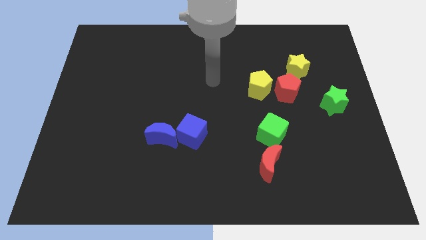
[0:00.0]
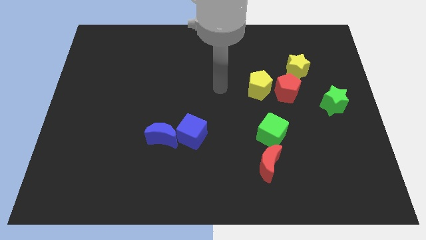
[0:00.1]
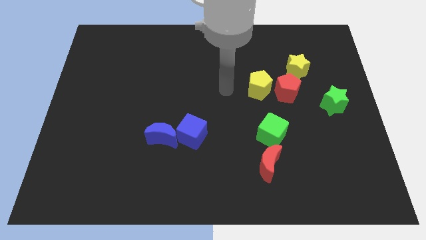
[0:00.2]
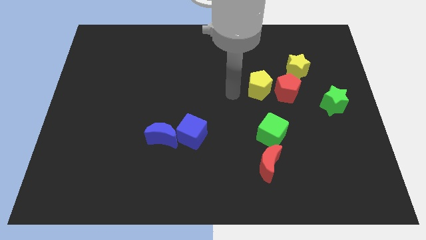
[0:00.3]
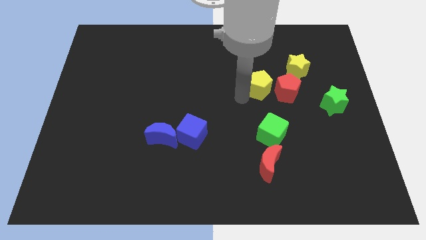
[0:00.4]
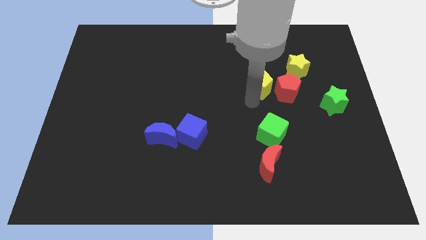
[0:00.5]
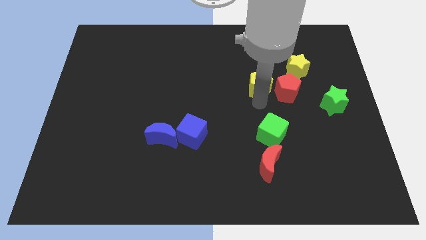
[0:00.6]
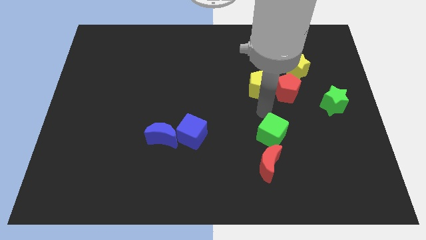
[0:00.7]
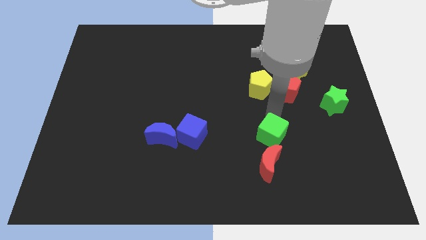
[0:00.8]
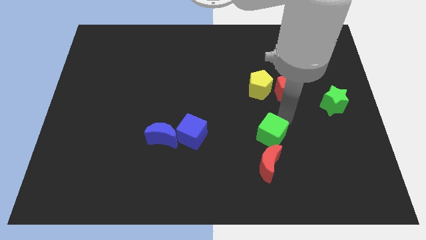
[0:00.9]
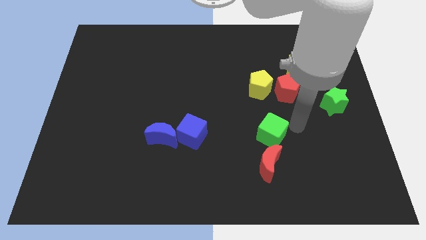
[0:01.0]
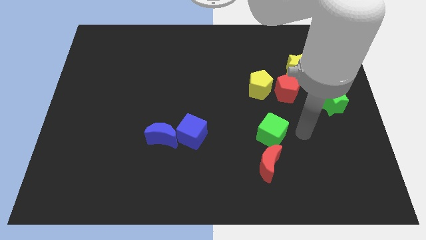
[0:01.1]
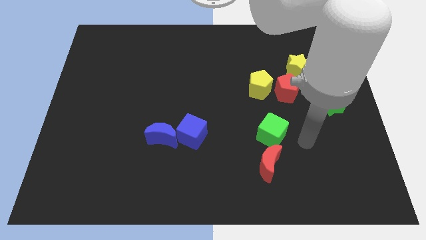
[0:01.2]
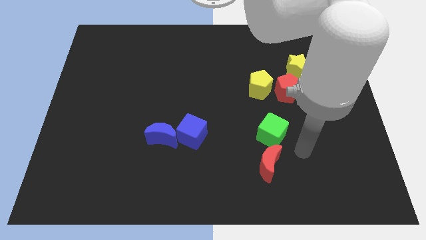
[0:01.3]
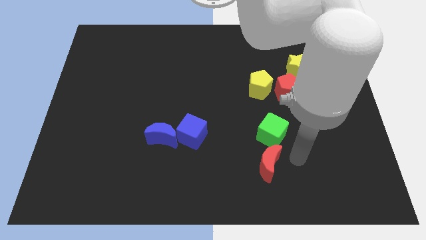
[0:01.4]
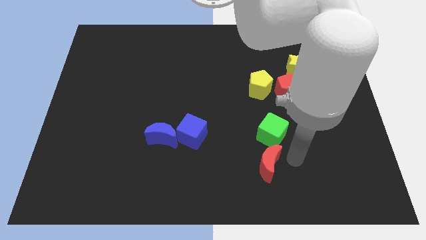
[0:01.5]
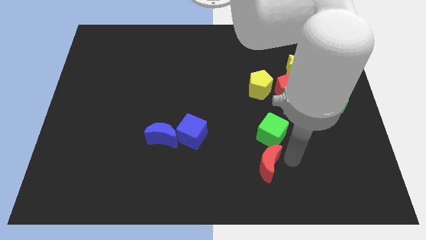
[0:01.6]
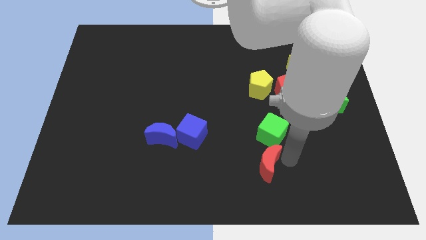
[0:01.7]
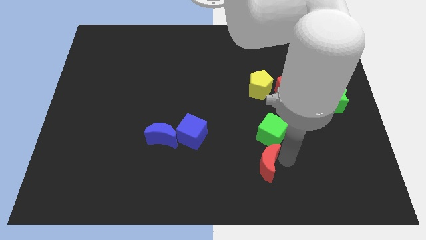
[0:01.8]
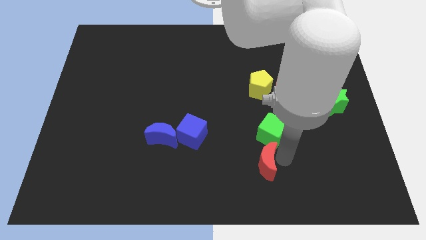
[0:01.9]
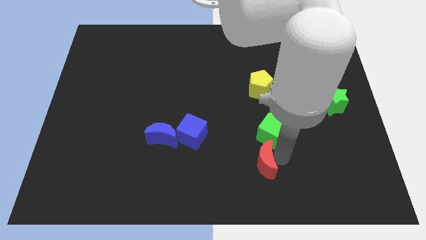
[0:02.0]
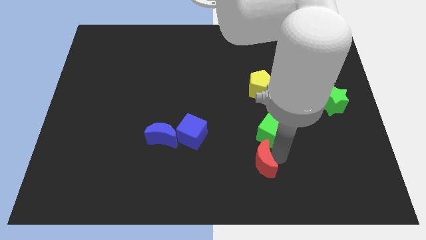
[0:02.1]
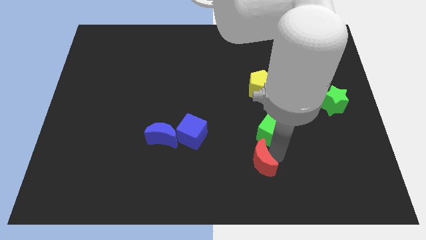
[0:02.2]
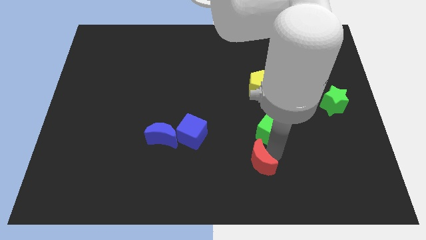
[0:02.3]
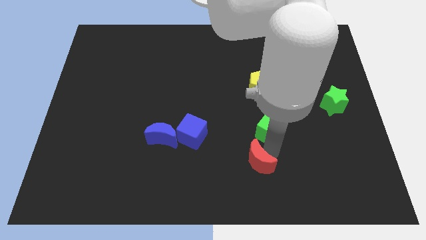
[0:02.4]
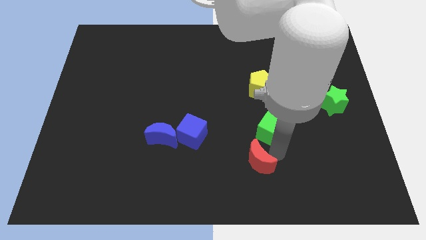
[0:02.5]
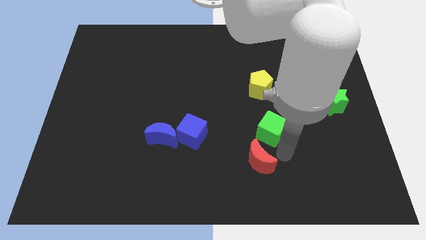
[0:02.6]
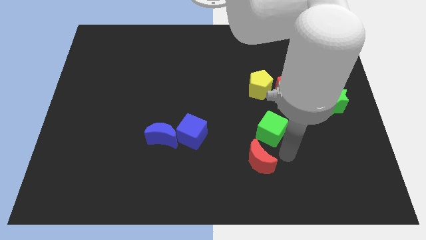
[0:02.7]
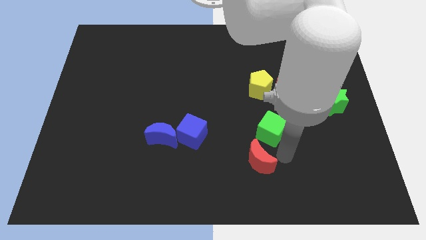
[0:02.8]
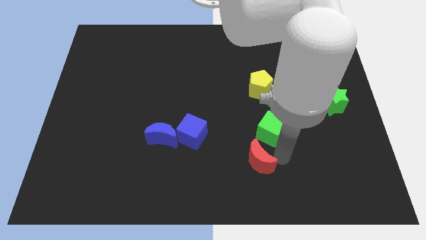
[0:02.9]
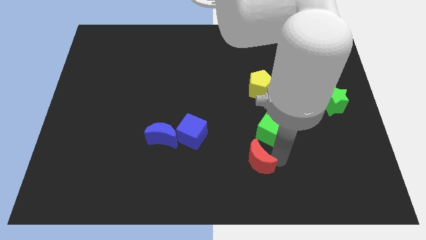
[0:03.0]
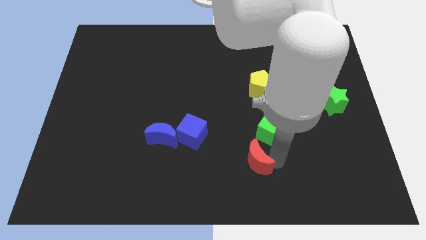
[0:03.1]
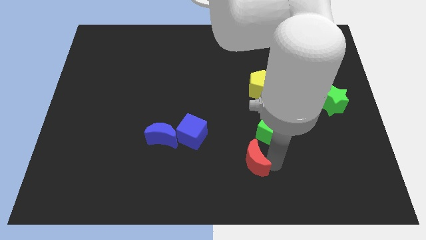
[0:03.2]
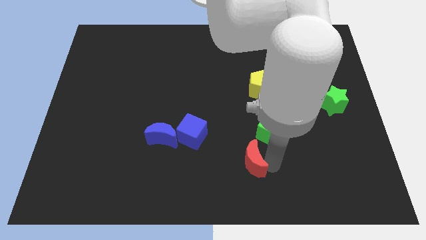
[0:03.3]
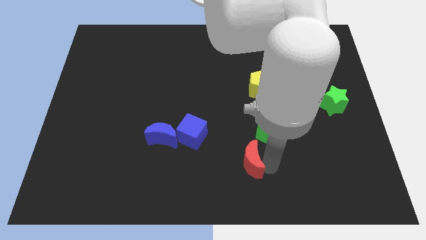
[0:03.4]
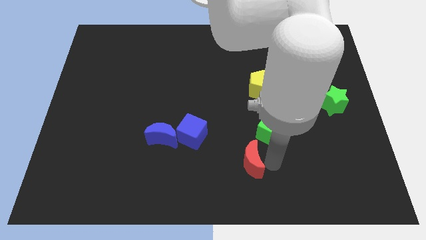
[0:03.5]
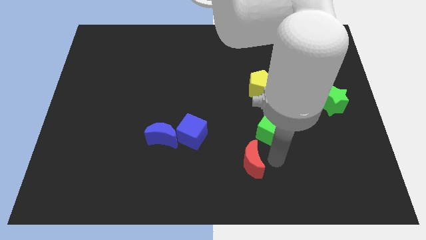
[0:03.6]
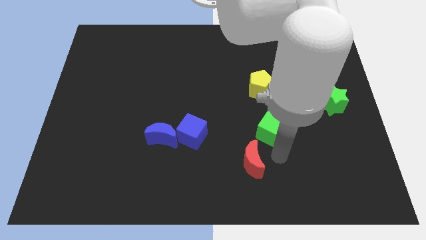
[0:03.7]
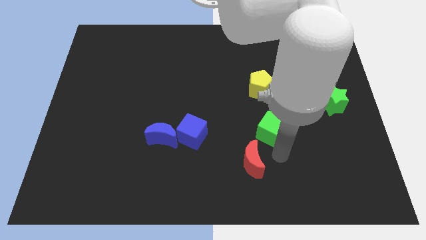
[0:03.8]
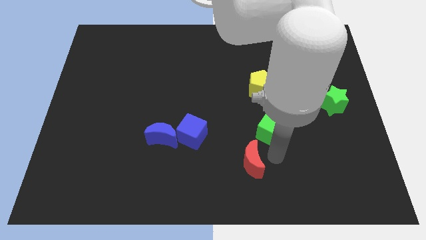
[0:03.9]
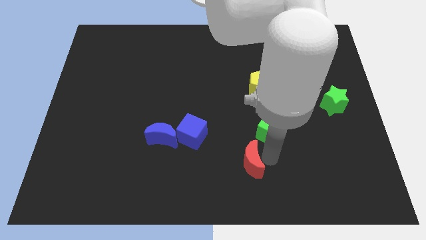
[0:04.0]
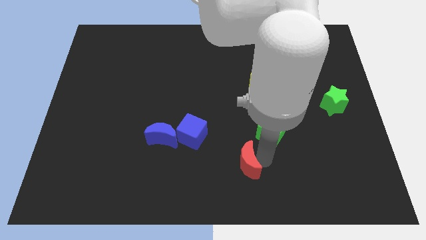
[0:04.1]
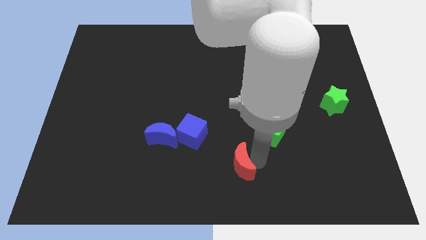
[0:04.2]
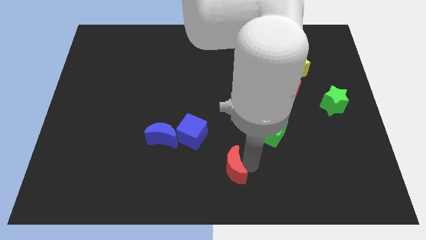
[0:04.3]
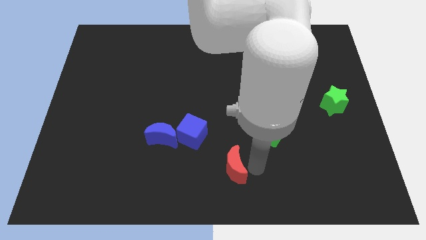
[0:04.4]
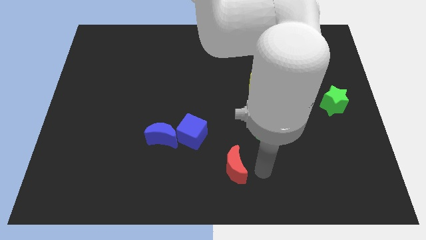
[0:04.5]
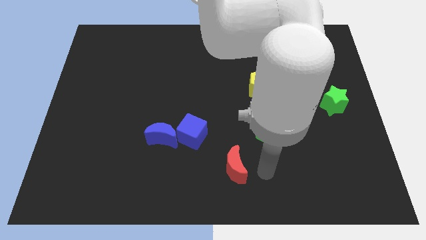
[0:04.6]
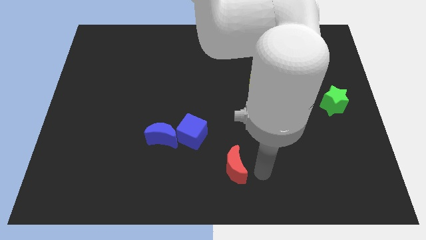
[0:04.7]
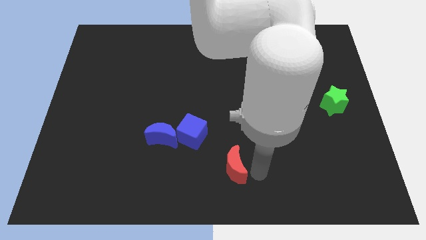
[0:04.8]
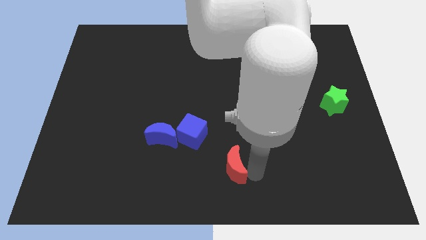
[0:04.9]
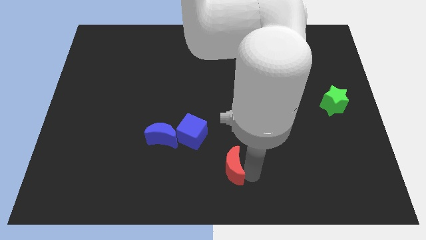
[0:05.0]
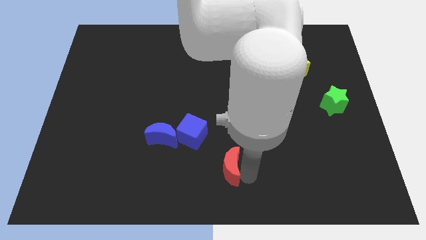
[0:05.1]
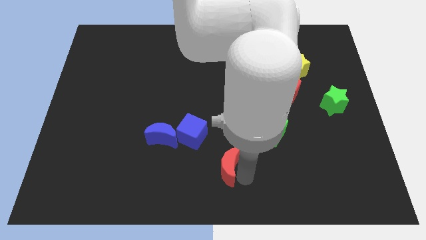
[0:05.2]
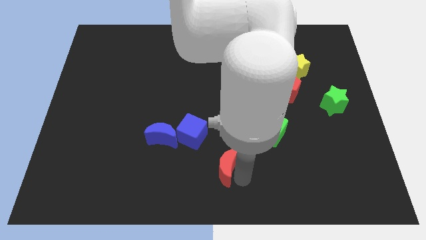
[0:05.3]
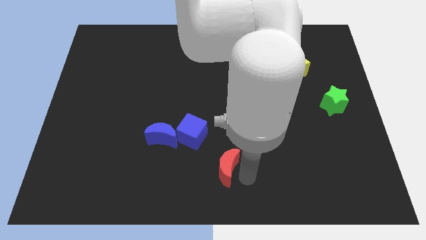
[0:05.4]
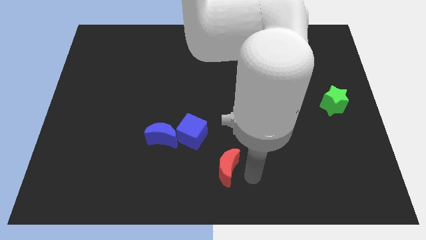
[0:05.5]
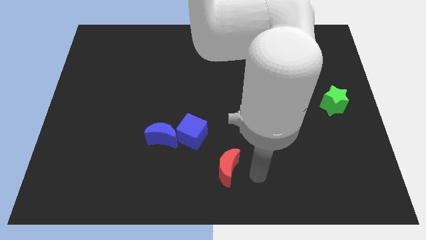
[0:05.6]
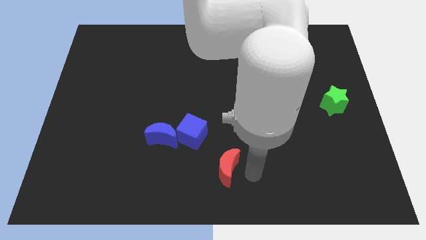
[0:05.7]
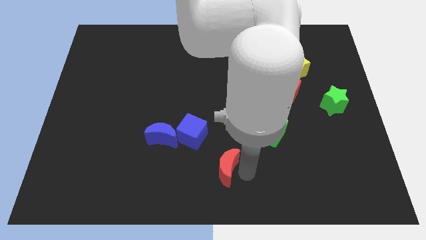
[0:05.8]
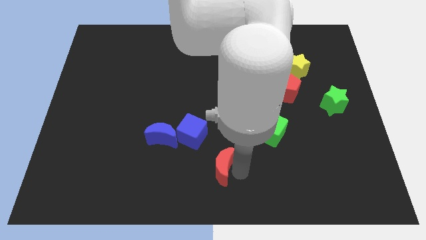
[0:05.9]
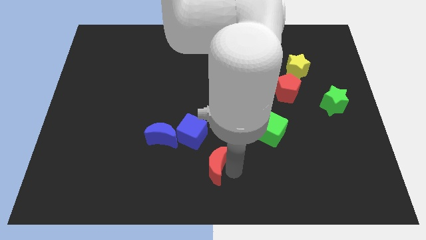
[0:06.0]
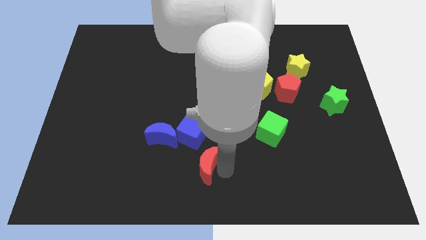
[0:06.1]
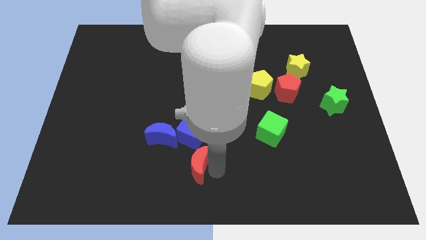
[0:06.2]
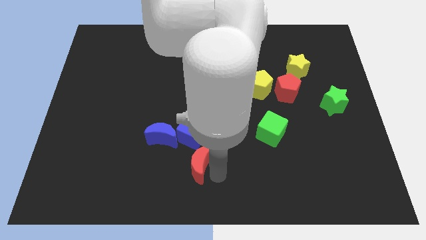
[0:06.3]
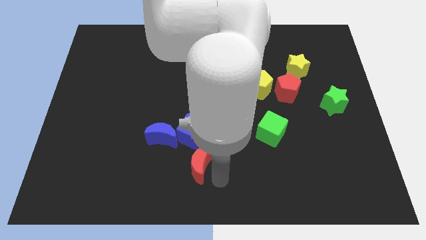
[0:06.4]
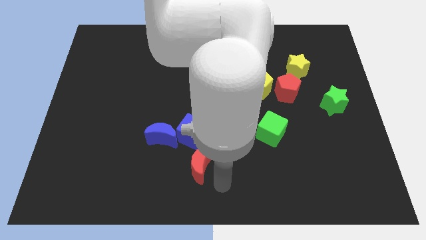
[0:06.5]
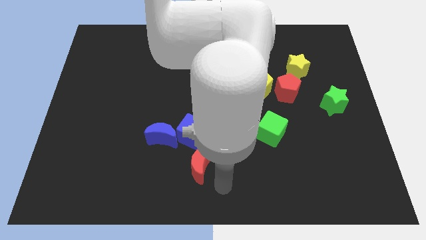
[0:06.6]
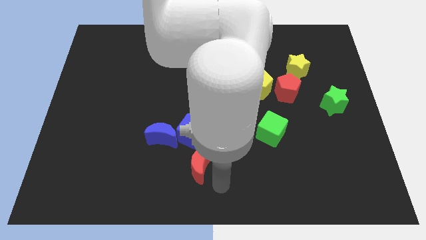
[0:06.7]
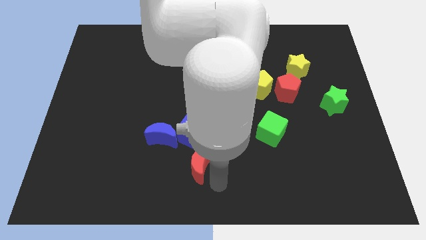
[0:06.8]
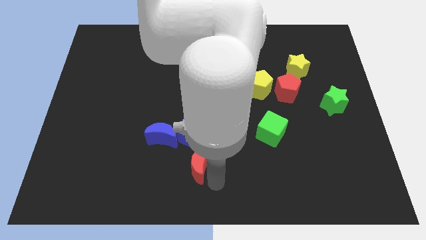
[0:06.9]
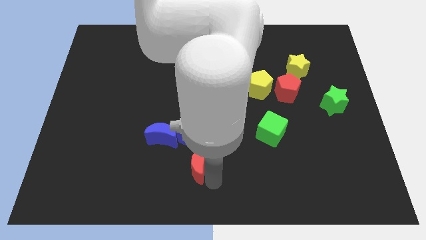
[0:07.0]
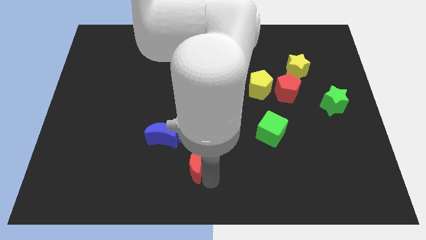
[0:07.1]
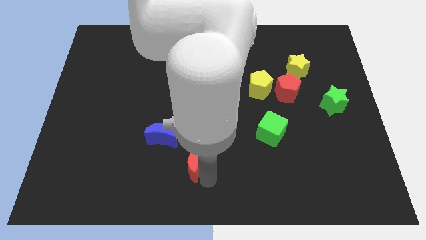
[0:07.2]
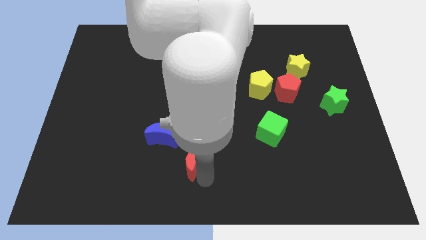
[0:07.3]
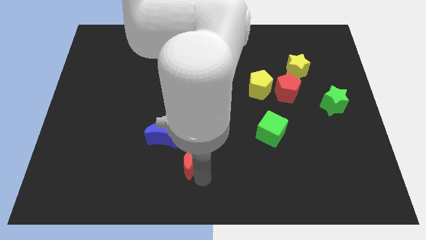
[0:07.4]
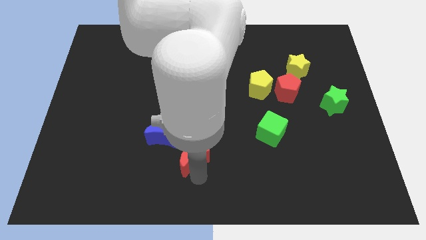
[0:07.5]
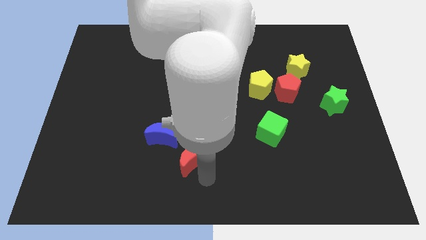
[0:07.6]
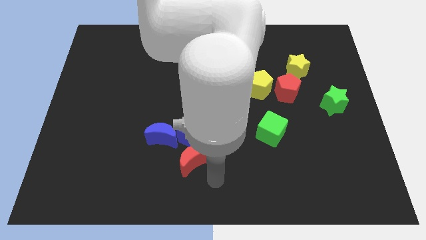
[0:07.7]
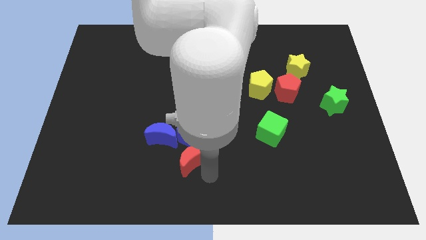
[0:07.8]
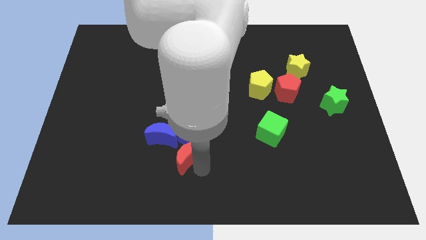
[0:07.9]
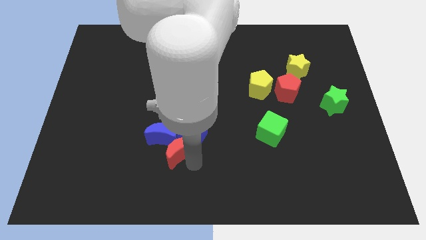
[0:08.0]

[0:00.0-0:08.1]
push the red moon to the blue moon
